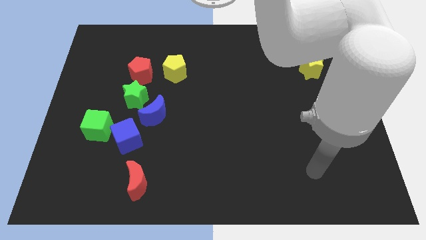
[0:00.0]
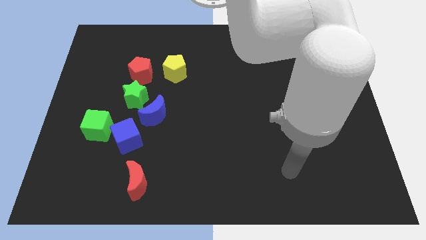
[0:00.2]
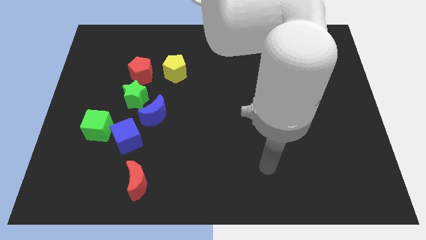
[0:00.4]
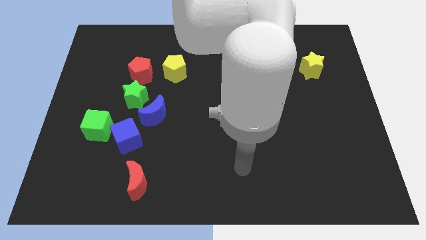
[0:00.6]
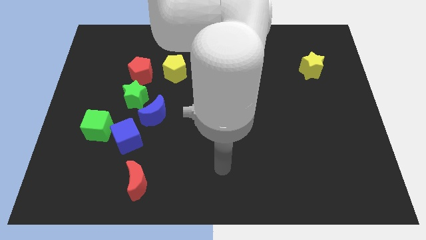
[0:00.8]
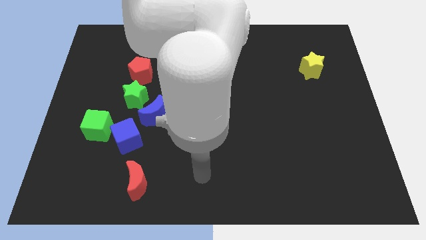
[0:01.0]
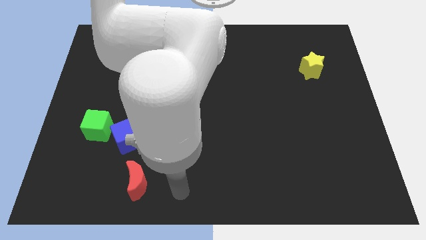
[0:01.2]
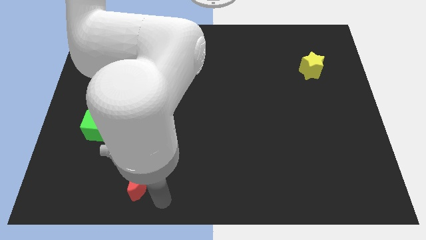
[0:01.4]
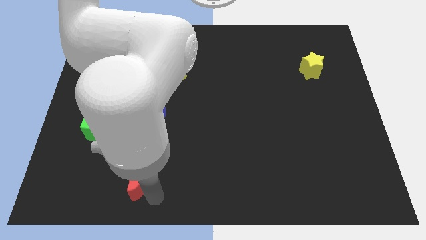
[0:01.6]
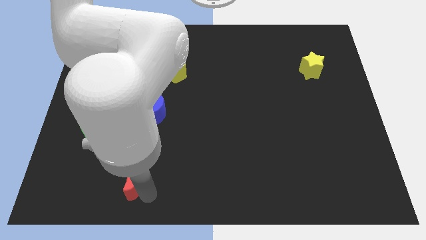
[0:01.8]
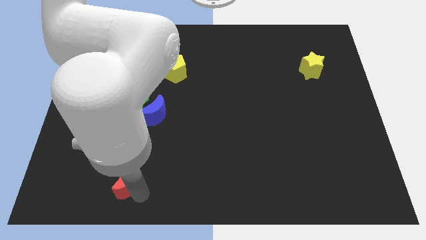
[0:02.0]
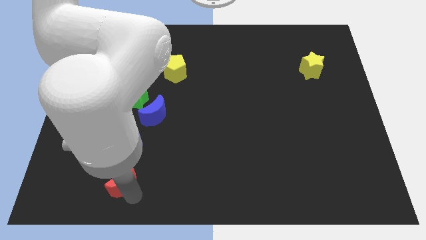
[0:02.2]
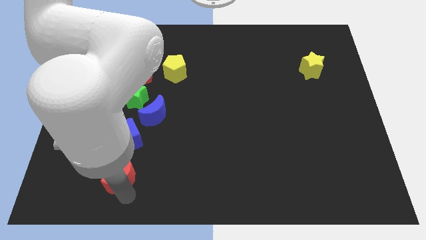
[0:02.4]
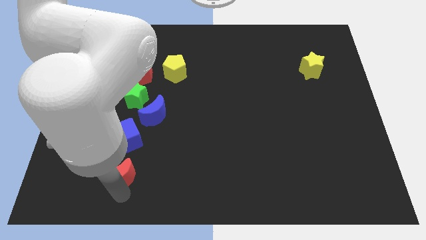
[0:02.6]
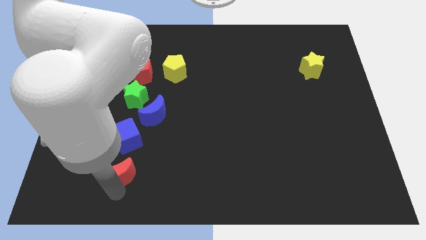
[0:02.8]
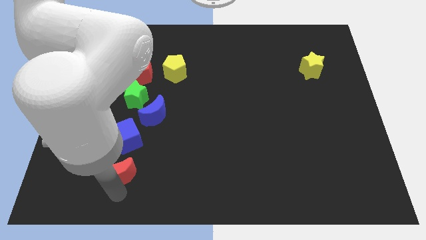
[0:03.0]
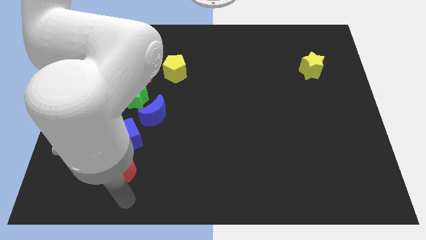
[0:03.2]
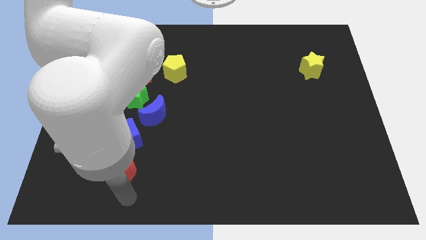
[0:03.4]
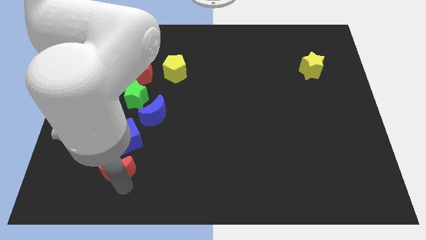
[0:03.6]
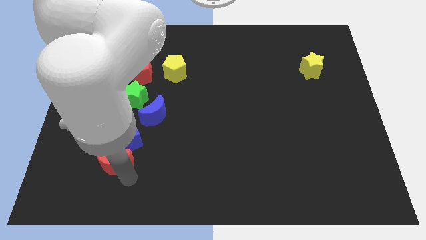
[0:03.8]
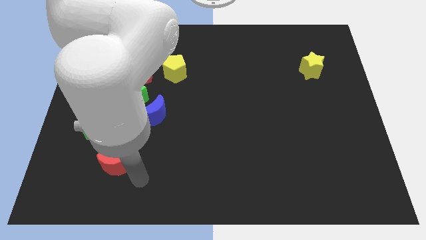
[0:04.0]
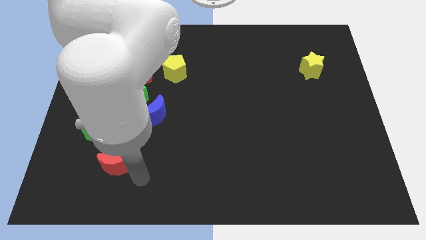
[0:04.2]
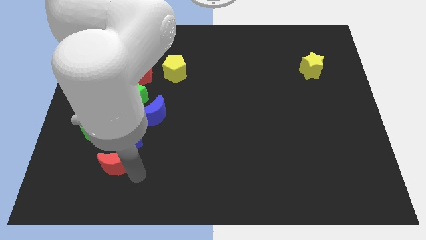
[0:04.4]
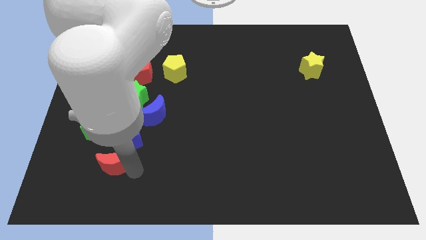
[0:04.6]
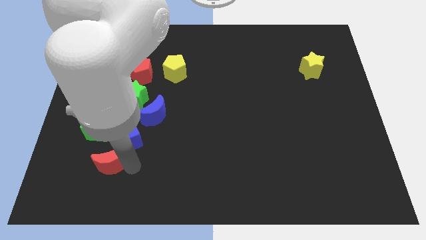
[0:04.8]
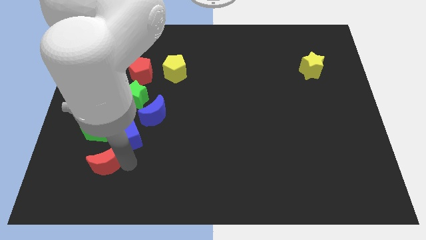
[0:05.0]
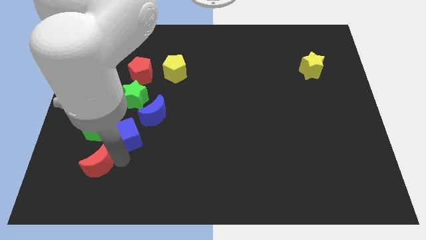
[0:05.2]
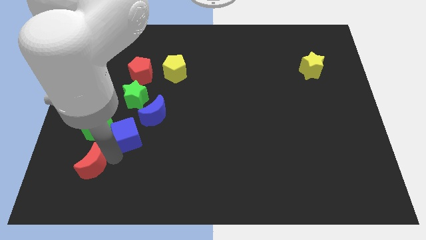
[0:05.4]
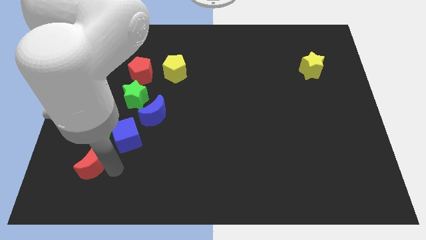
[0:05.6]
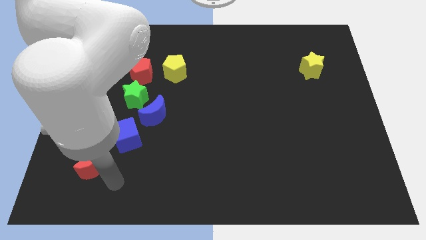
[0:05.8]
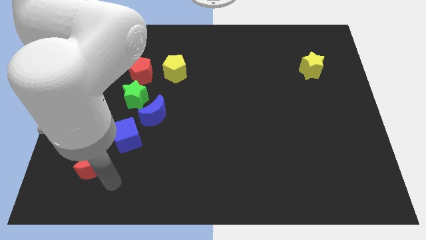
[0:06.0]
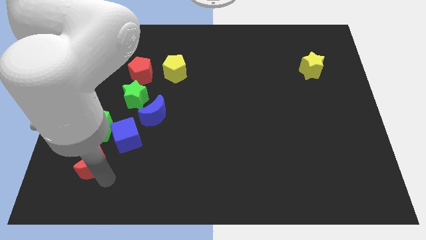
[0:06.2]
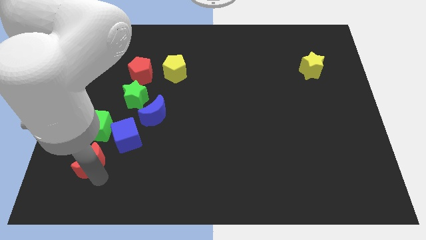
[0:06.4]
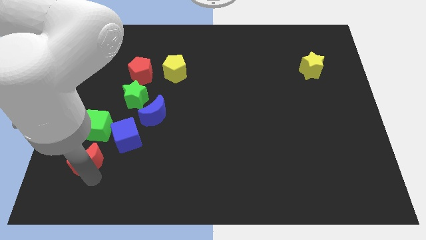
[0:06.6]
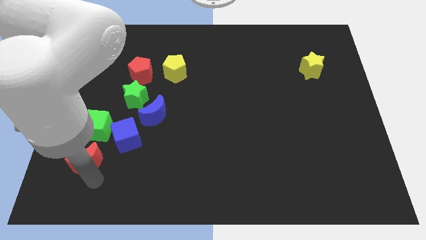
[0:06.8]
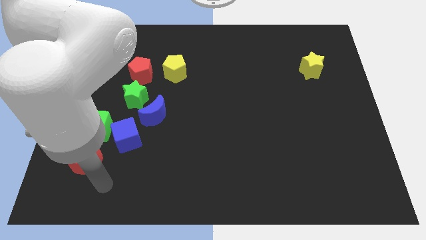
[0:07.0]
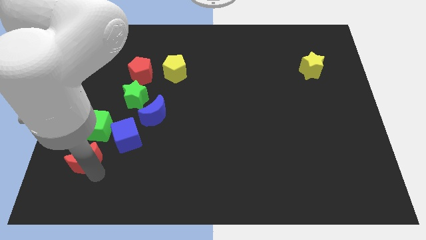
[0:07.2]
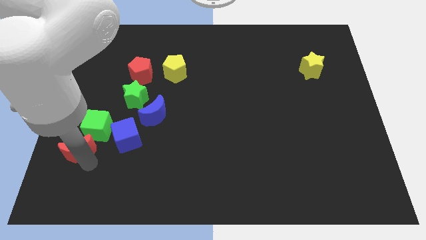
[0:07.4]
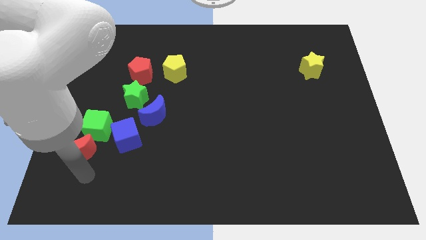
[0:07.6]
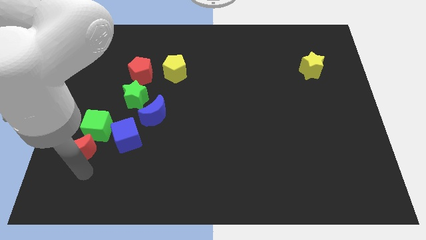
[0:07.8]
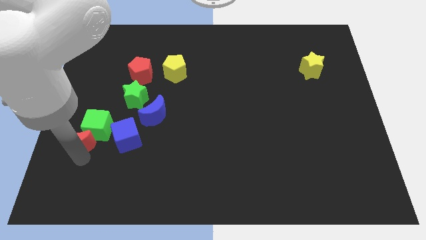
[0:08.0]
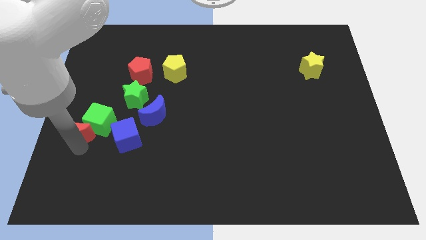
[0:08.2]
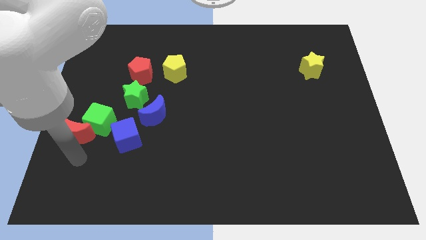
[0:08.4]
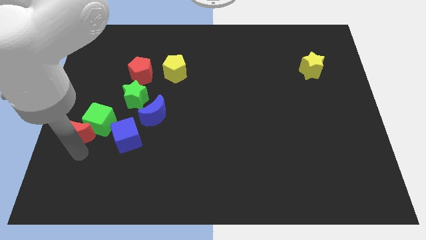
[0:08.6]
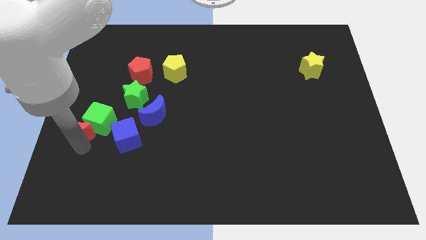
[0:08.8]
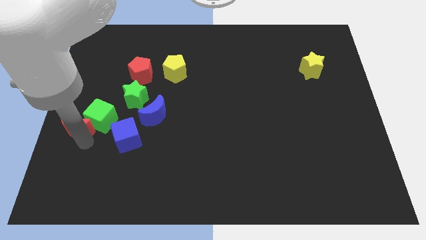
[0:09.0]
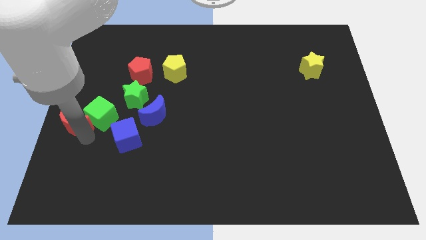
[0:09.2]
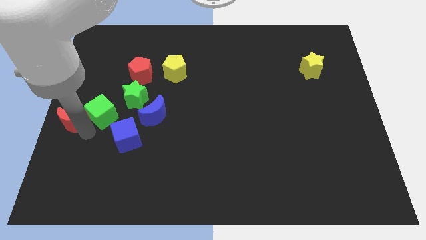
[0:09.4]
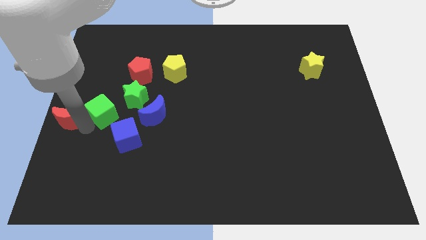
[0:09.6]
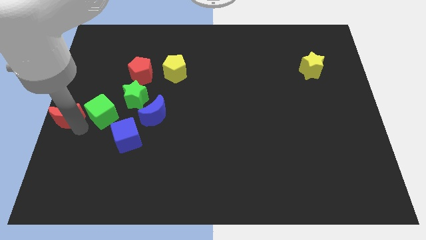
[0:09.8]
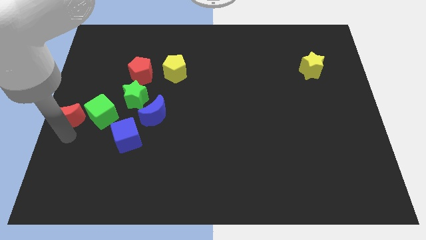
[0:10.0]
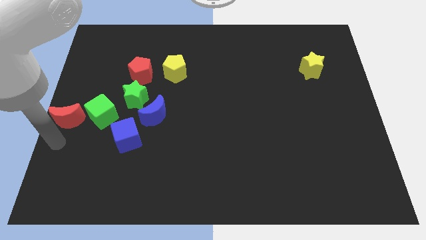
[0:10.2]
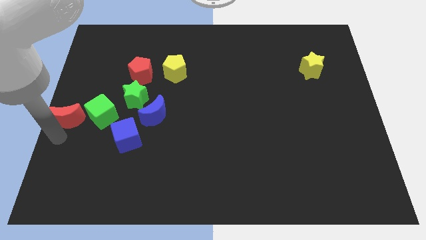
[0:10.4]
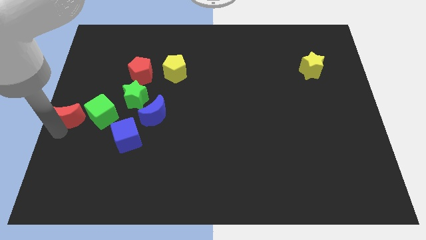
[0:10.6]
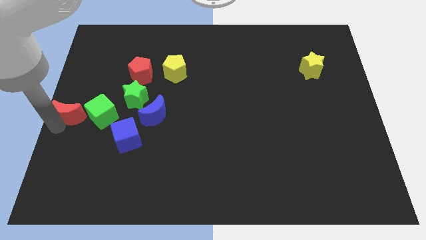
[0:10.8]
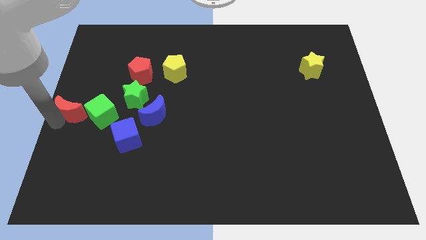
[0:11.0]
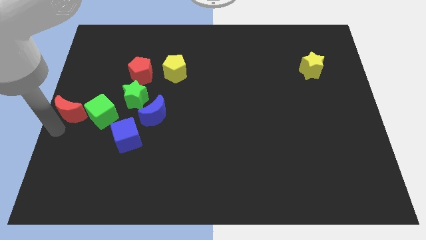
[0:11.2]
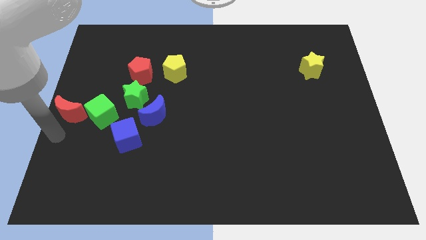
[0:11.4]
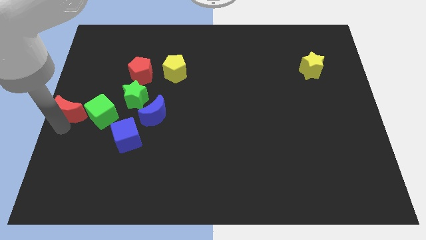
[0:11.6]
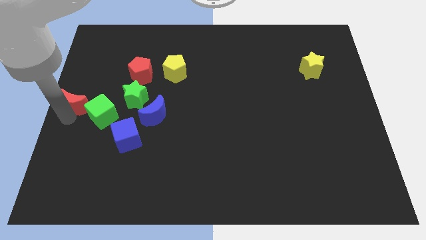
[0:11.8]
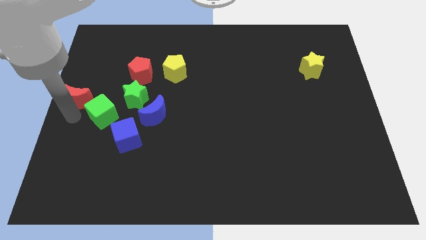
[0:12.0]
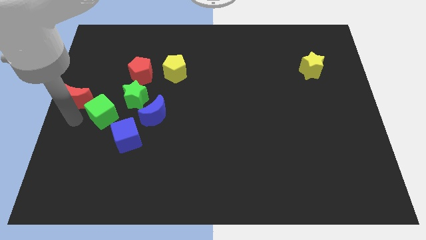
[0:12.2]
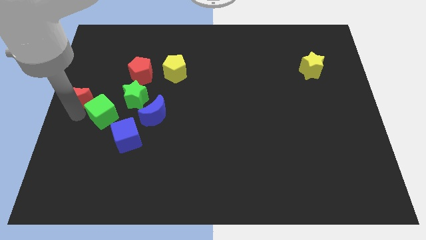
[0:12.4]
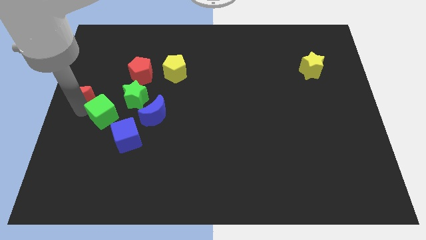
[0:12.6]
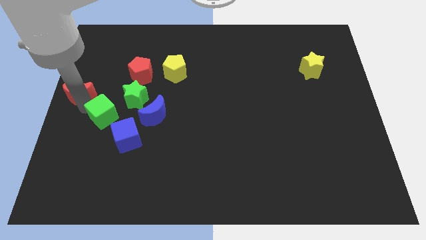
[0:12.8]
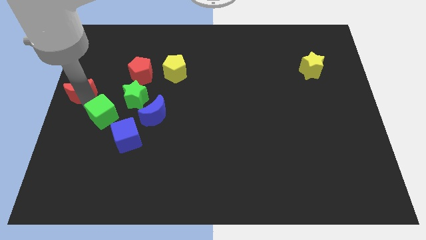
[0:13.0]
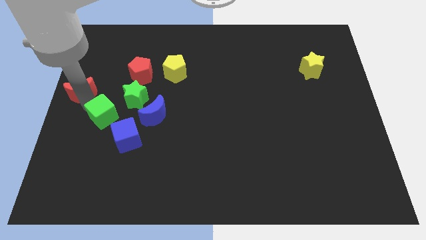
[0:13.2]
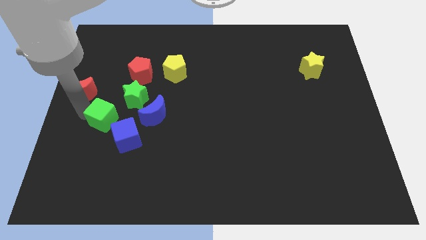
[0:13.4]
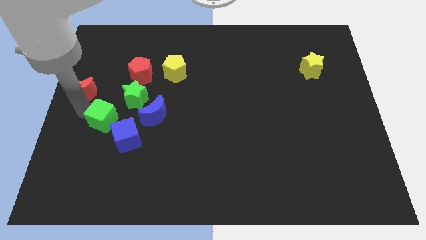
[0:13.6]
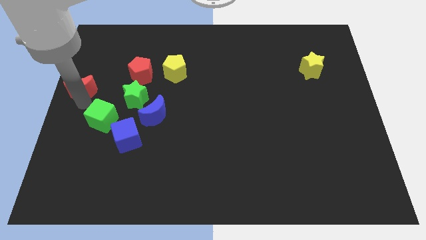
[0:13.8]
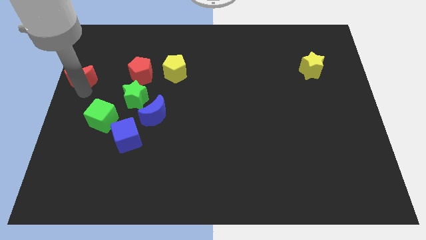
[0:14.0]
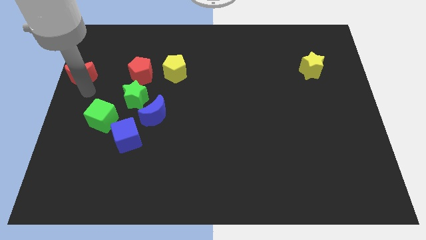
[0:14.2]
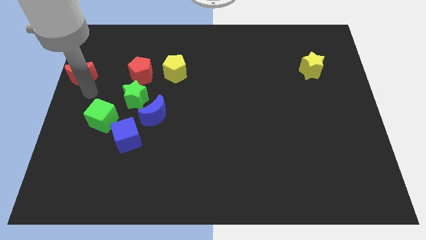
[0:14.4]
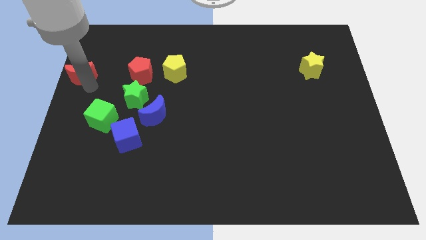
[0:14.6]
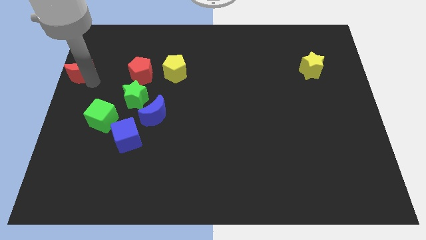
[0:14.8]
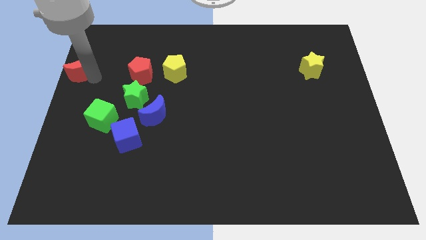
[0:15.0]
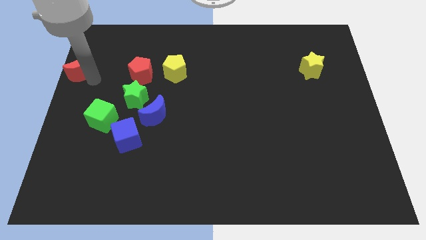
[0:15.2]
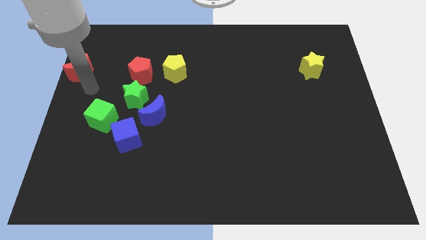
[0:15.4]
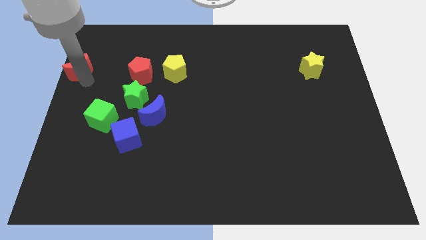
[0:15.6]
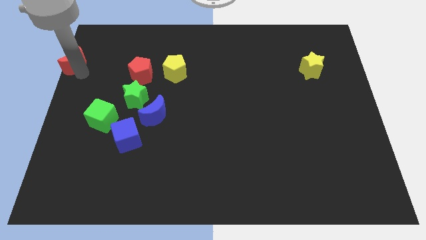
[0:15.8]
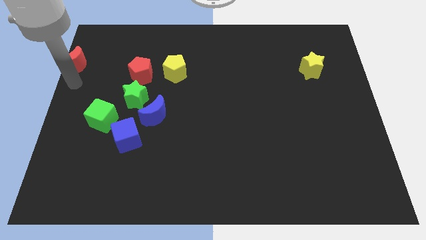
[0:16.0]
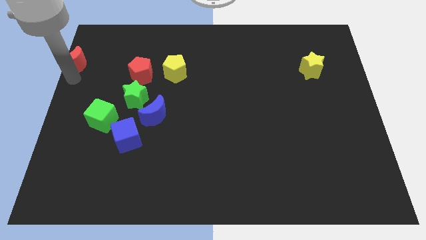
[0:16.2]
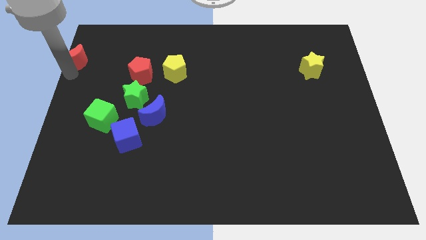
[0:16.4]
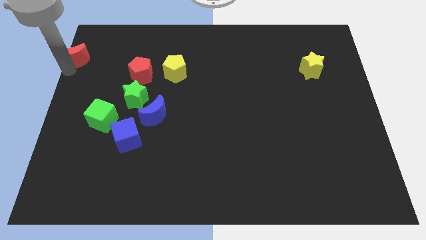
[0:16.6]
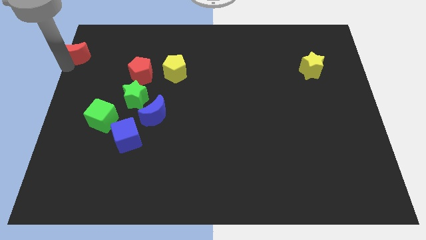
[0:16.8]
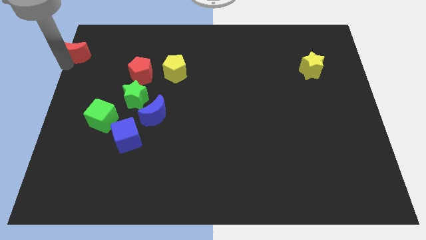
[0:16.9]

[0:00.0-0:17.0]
put the red moon to the top left corner
